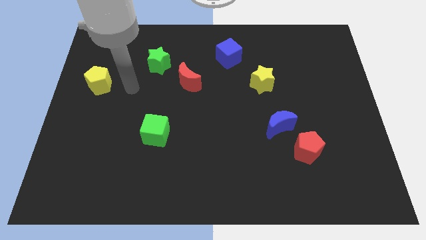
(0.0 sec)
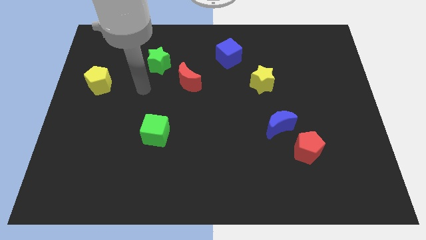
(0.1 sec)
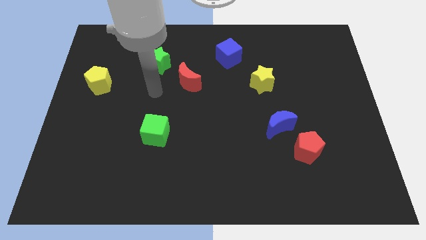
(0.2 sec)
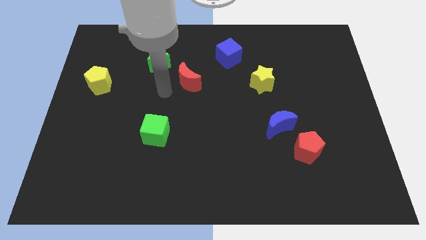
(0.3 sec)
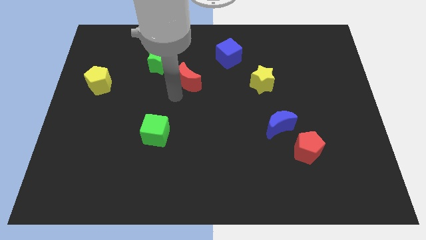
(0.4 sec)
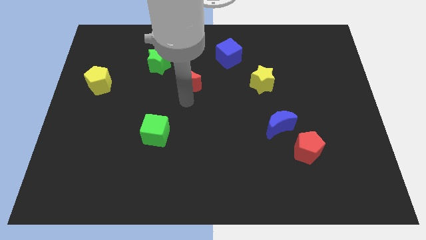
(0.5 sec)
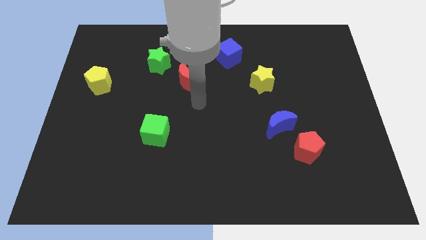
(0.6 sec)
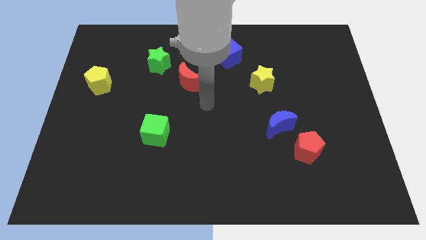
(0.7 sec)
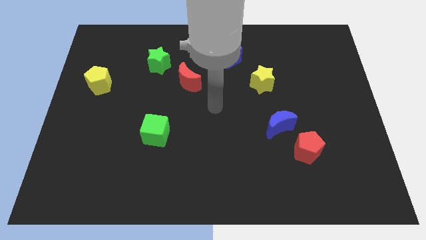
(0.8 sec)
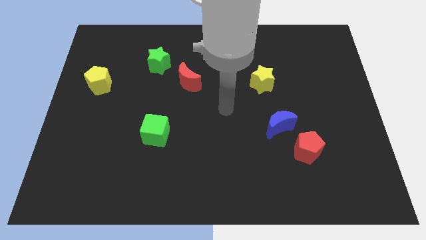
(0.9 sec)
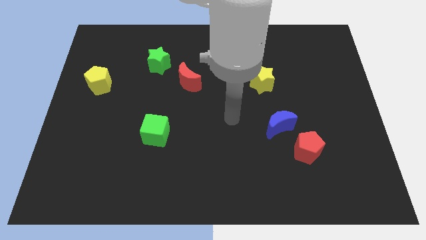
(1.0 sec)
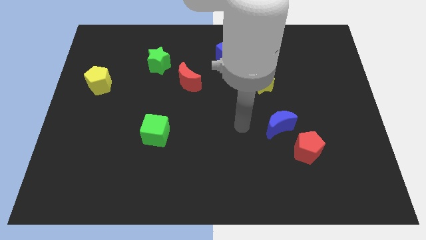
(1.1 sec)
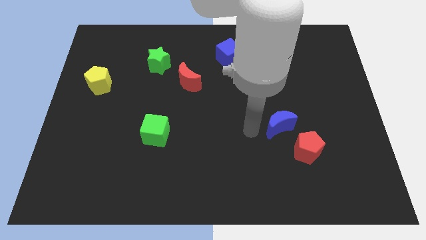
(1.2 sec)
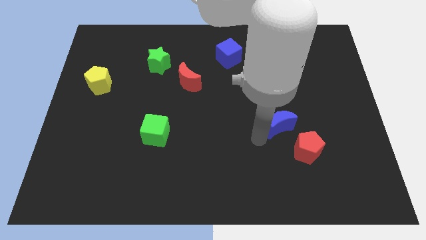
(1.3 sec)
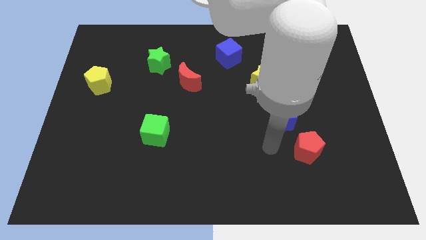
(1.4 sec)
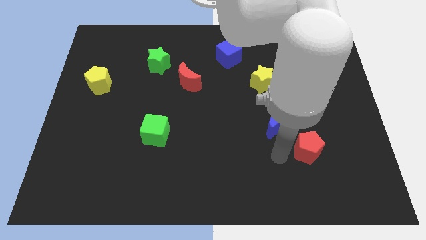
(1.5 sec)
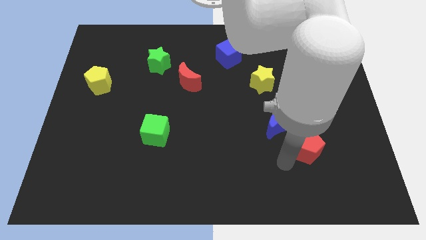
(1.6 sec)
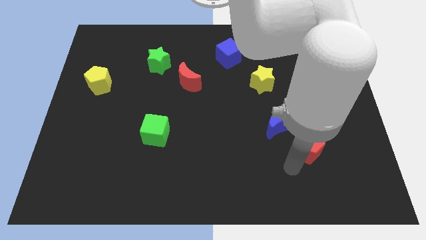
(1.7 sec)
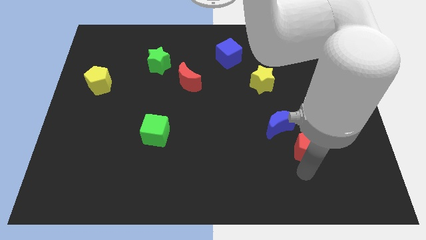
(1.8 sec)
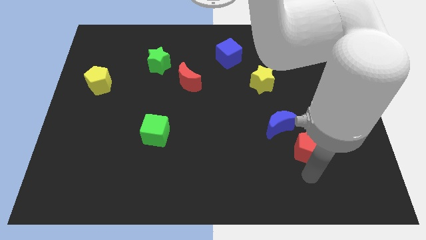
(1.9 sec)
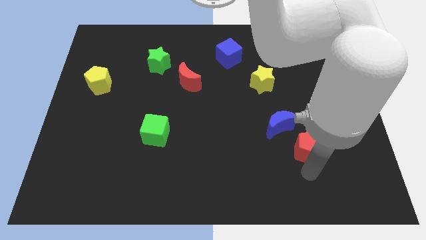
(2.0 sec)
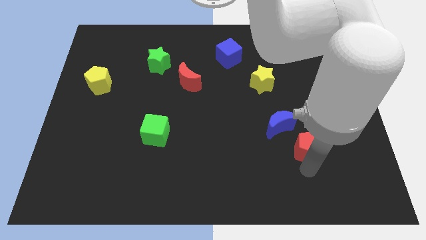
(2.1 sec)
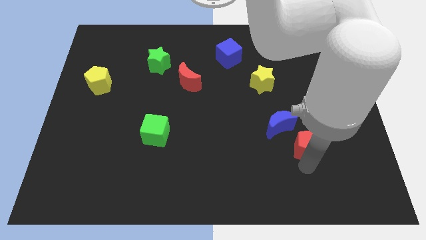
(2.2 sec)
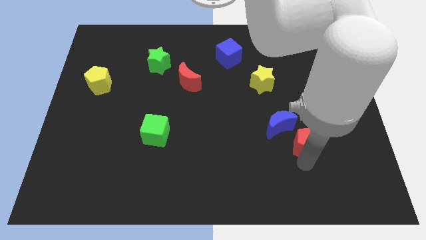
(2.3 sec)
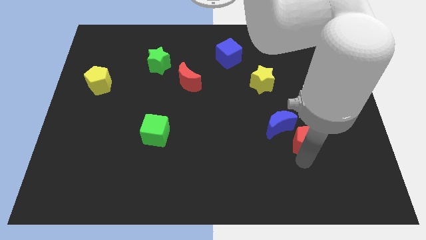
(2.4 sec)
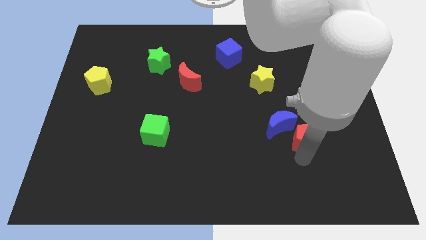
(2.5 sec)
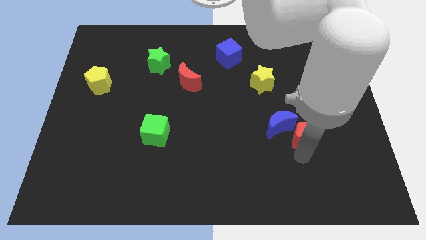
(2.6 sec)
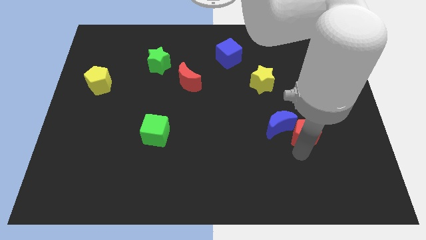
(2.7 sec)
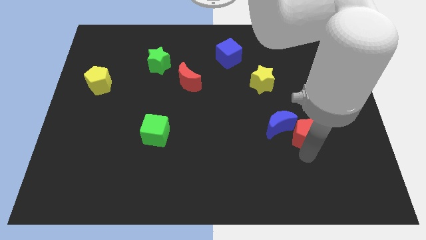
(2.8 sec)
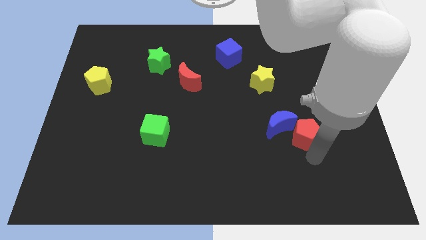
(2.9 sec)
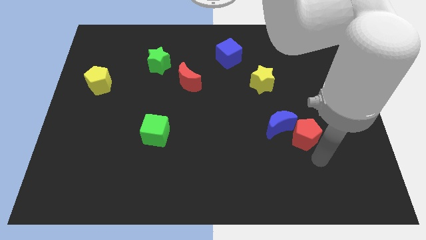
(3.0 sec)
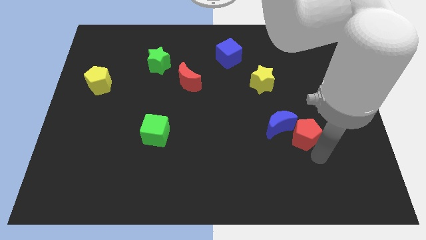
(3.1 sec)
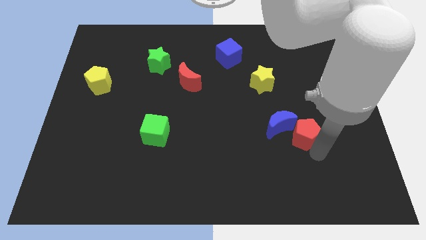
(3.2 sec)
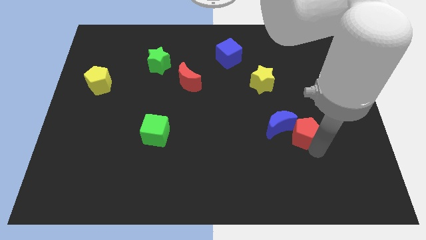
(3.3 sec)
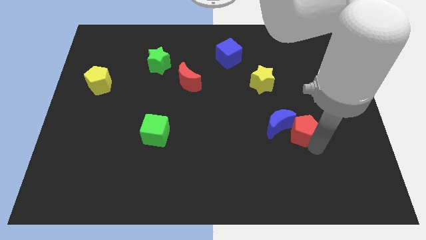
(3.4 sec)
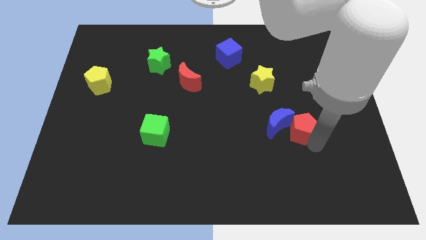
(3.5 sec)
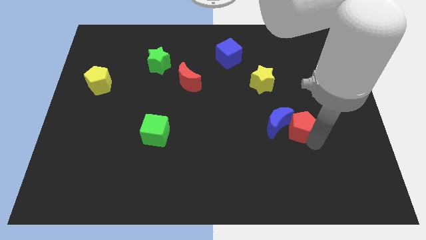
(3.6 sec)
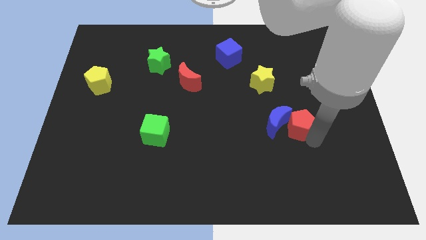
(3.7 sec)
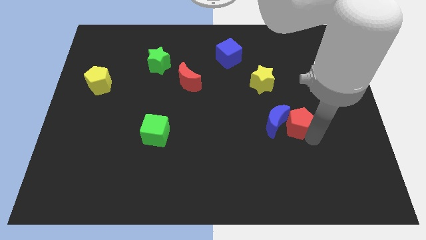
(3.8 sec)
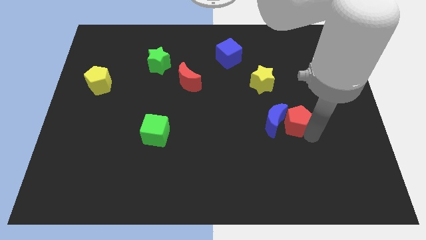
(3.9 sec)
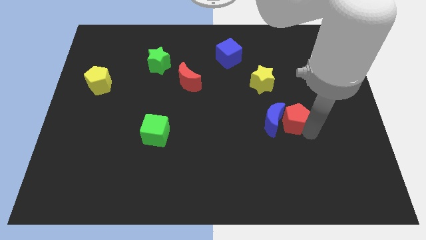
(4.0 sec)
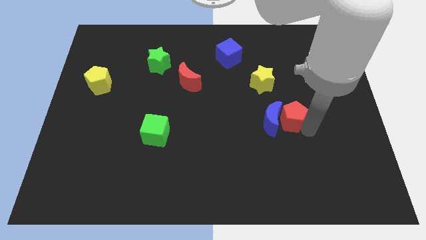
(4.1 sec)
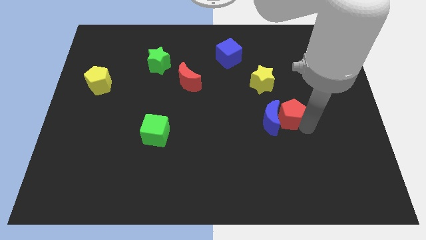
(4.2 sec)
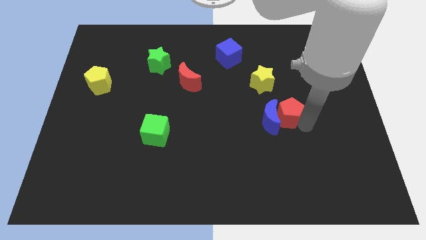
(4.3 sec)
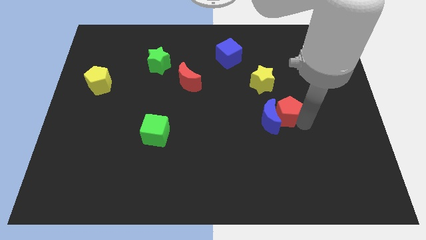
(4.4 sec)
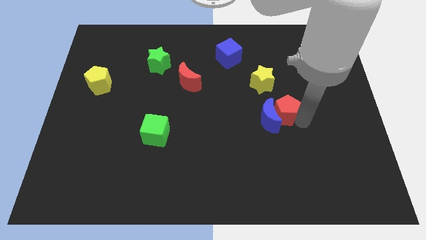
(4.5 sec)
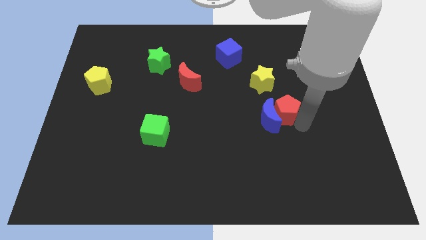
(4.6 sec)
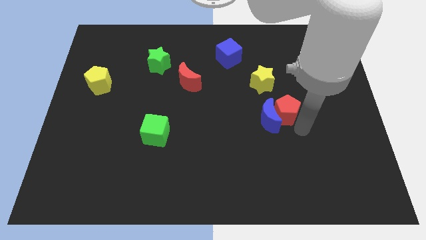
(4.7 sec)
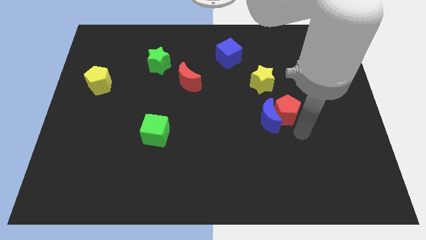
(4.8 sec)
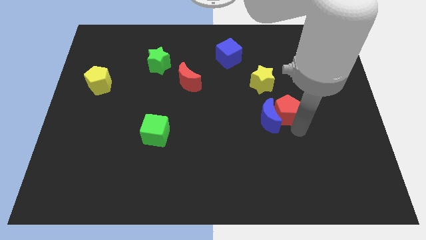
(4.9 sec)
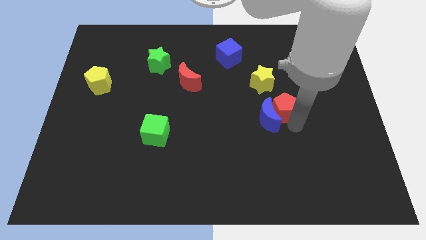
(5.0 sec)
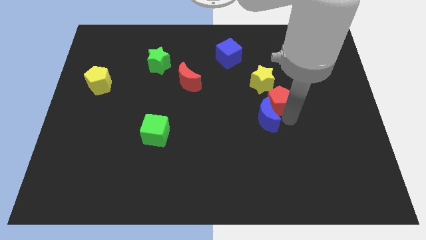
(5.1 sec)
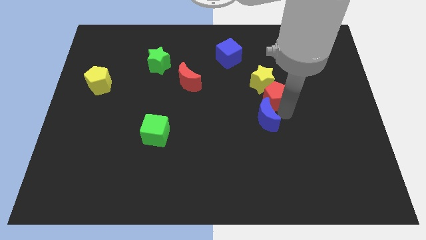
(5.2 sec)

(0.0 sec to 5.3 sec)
move the red pentagon towards the yellow star

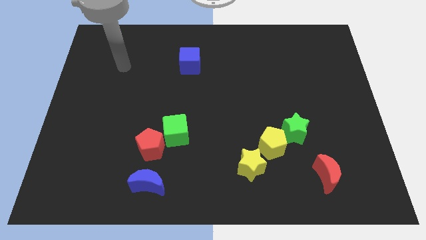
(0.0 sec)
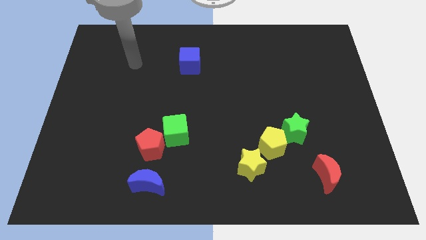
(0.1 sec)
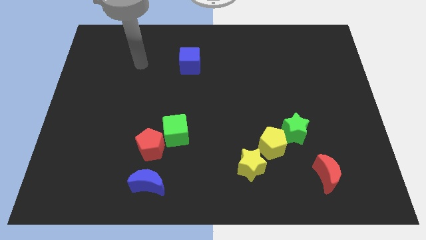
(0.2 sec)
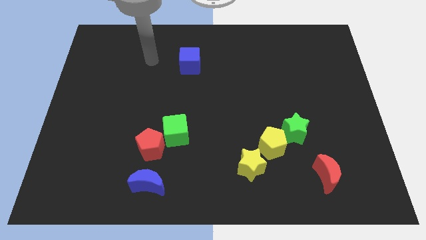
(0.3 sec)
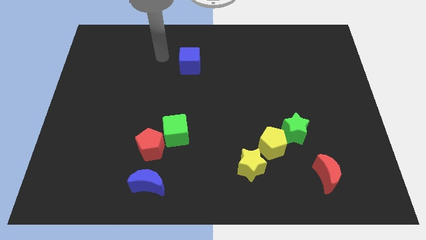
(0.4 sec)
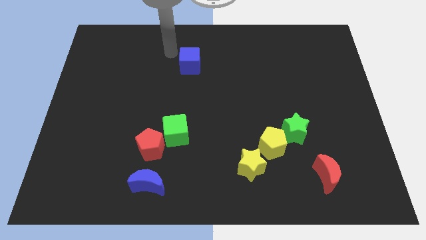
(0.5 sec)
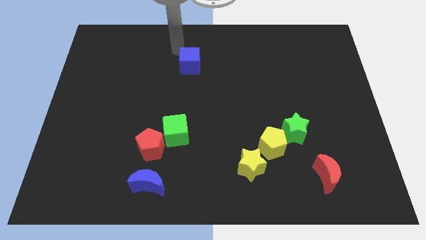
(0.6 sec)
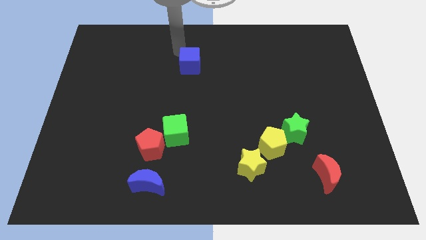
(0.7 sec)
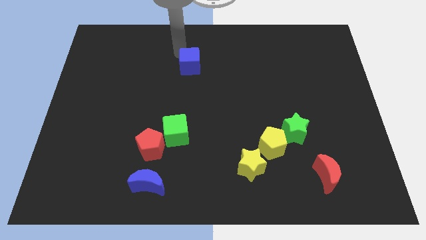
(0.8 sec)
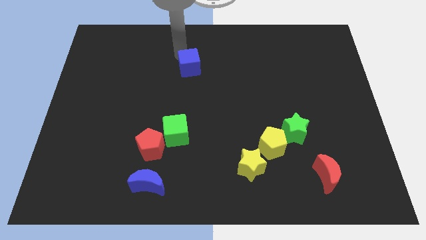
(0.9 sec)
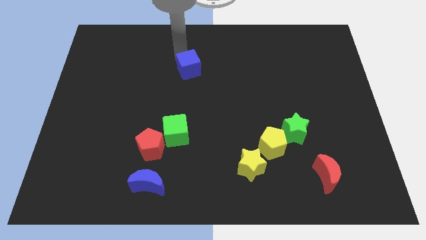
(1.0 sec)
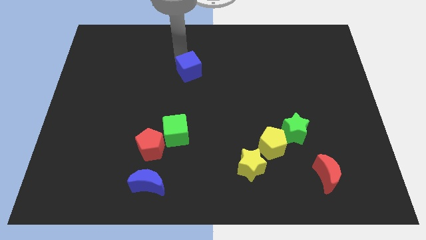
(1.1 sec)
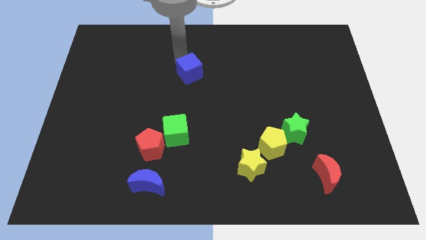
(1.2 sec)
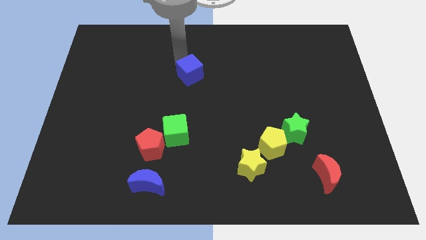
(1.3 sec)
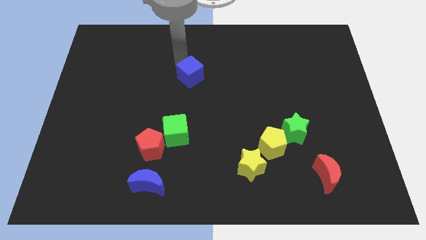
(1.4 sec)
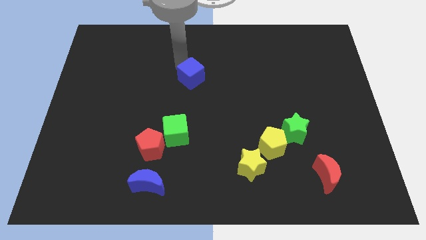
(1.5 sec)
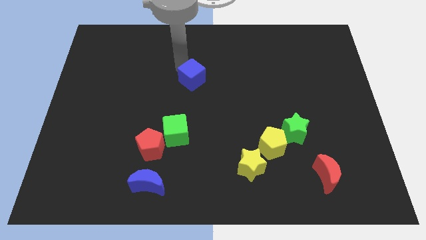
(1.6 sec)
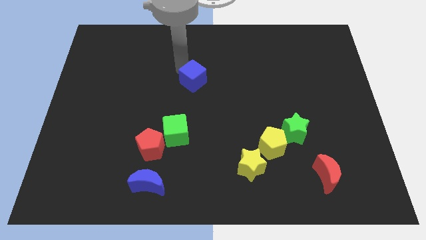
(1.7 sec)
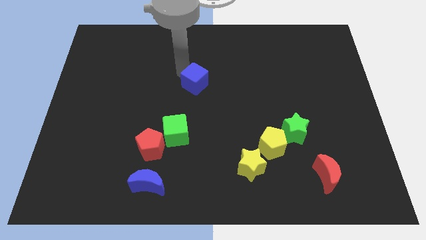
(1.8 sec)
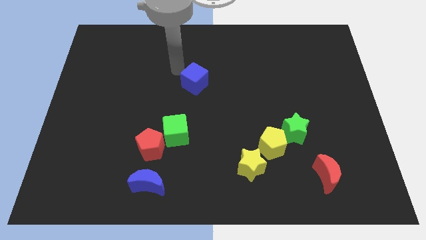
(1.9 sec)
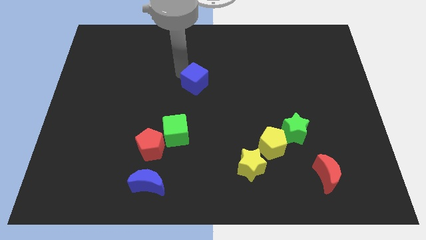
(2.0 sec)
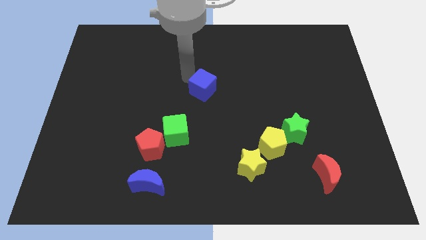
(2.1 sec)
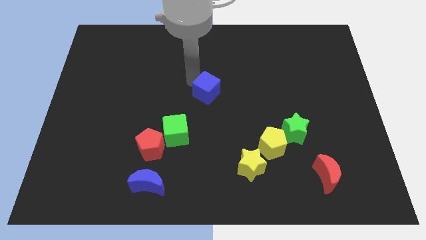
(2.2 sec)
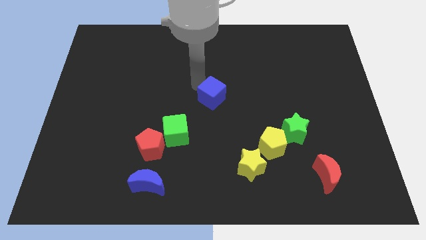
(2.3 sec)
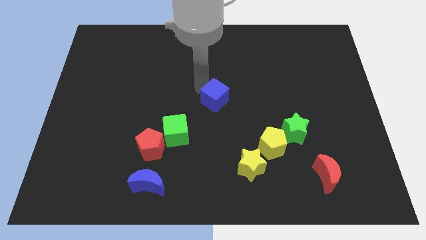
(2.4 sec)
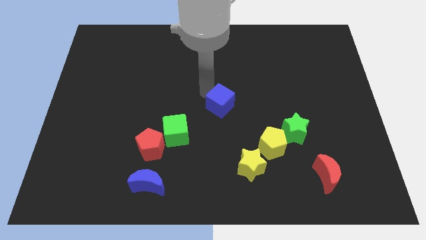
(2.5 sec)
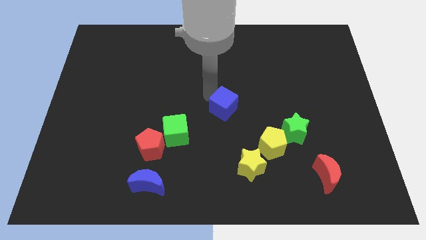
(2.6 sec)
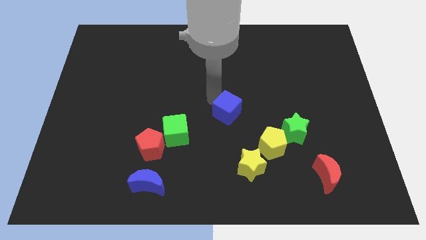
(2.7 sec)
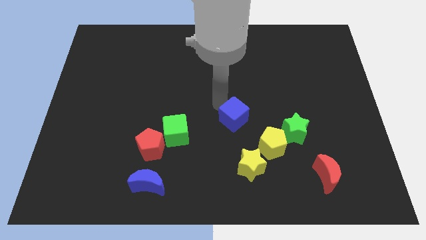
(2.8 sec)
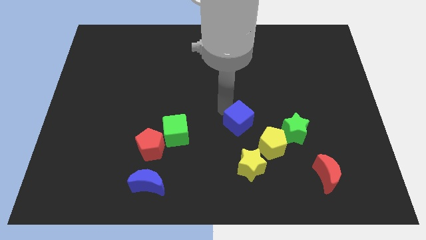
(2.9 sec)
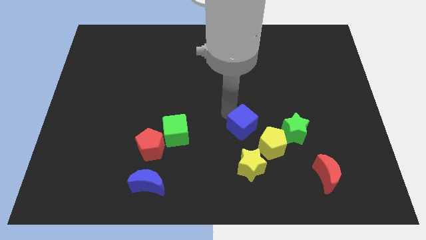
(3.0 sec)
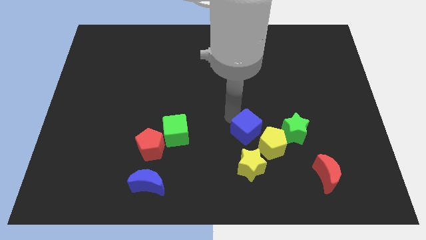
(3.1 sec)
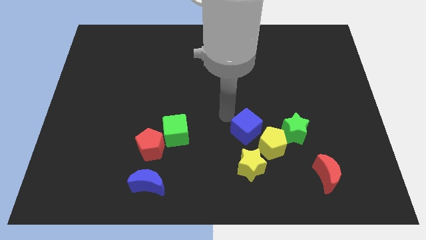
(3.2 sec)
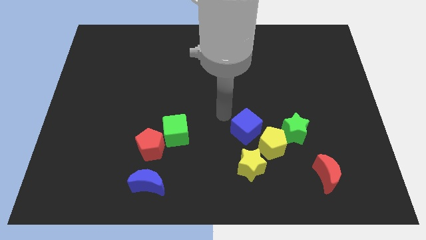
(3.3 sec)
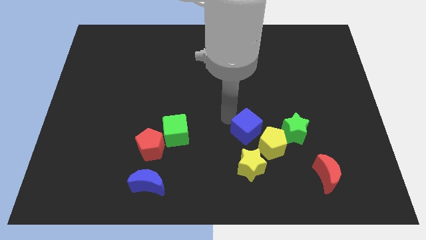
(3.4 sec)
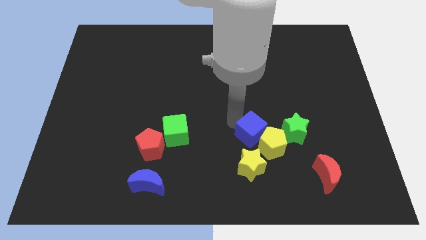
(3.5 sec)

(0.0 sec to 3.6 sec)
slide the blue cube to the yellow pentagon
